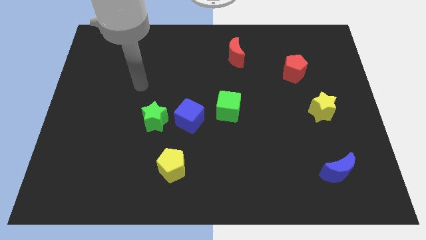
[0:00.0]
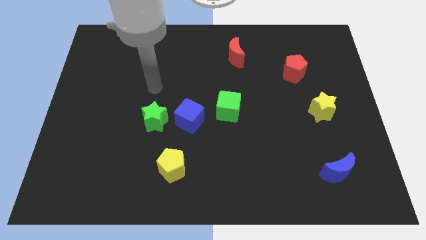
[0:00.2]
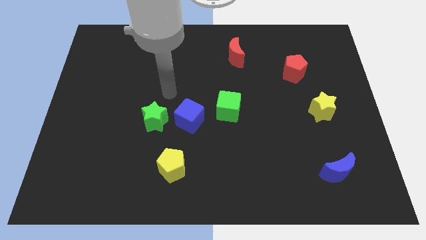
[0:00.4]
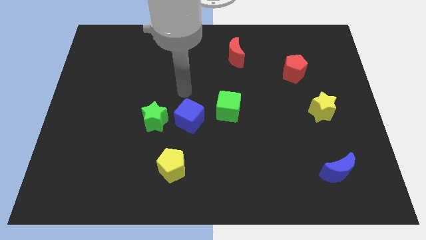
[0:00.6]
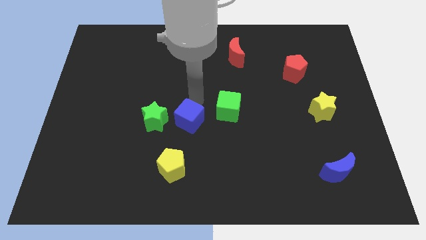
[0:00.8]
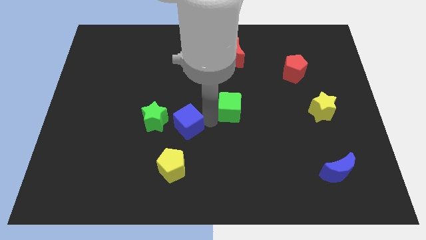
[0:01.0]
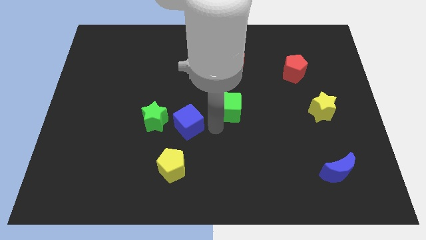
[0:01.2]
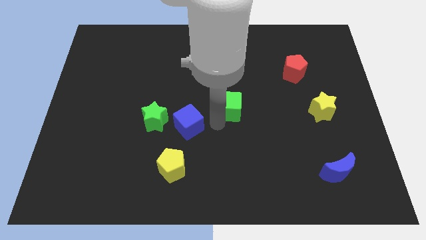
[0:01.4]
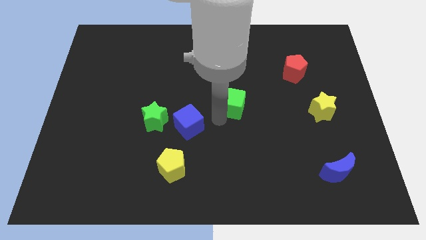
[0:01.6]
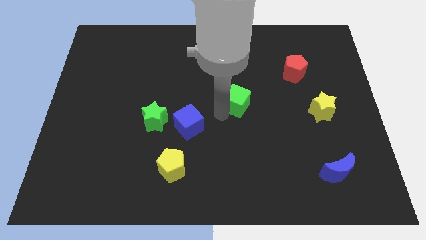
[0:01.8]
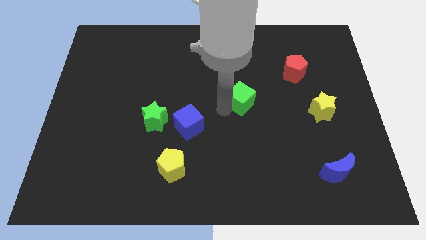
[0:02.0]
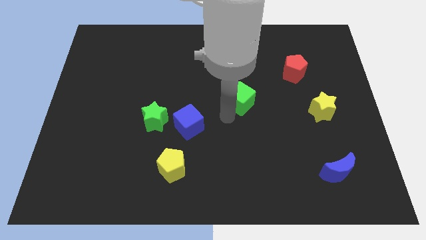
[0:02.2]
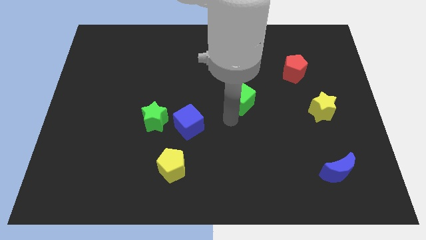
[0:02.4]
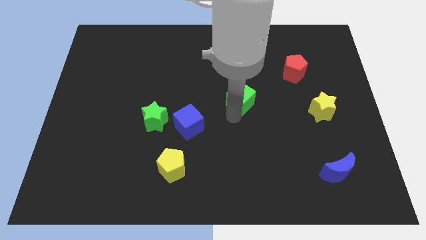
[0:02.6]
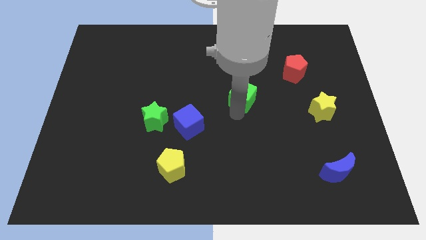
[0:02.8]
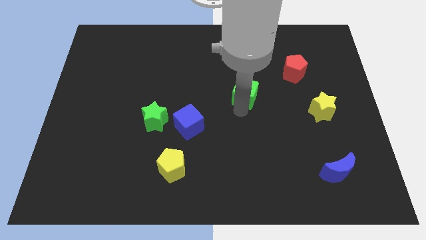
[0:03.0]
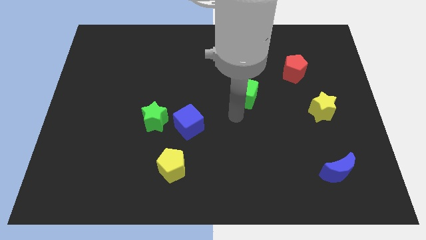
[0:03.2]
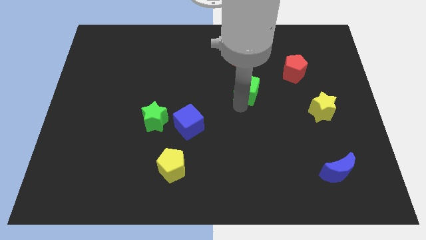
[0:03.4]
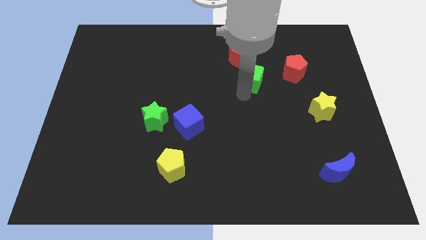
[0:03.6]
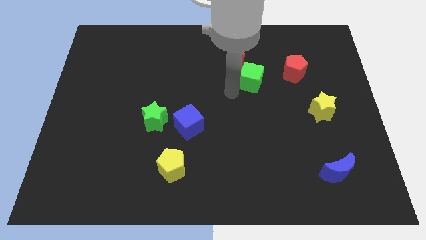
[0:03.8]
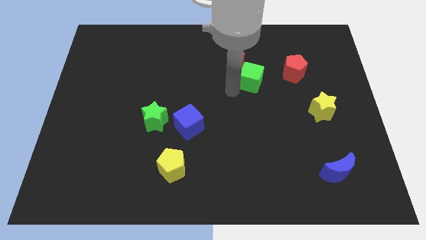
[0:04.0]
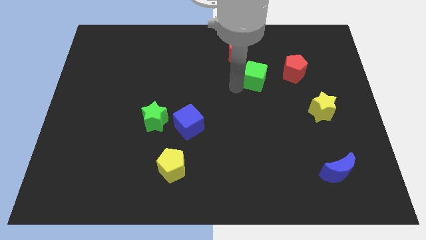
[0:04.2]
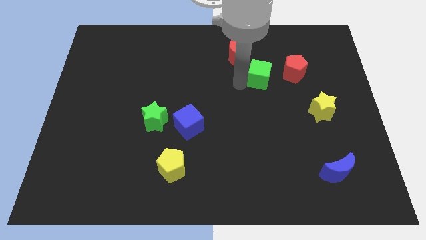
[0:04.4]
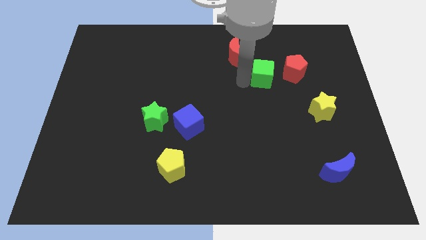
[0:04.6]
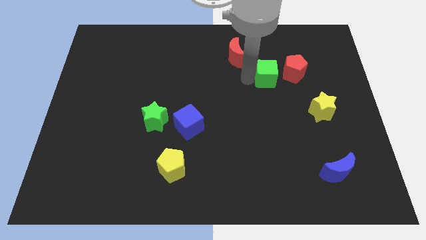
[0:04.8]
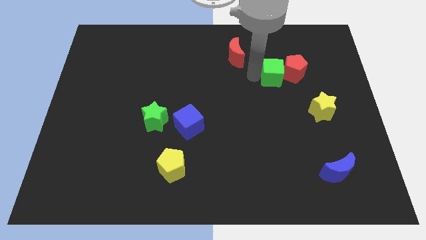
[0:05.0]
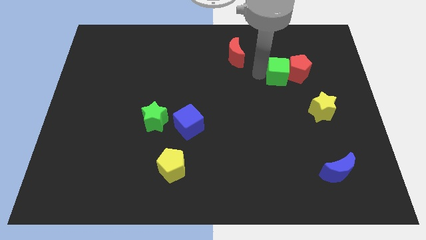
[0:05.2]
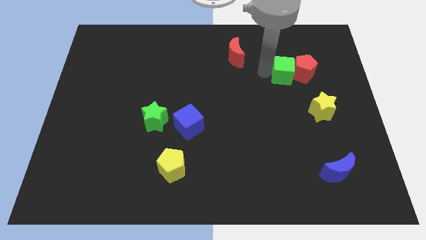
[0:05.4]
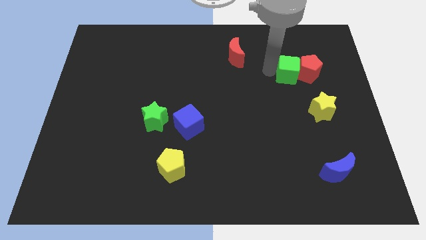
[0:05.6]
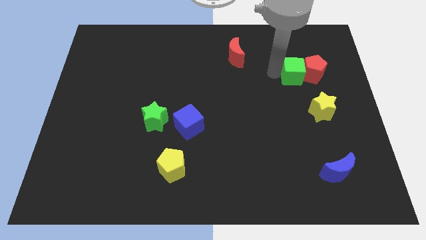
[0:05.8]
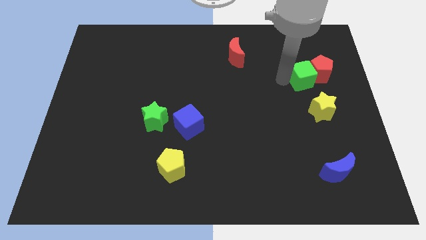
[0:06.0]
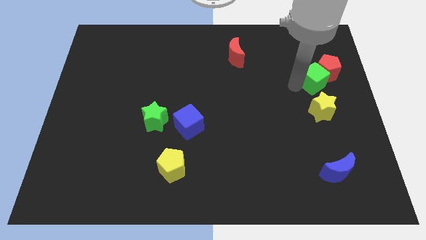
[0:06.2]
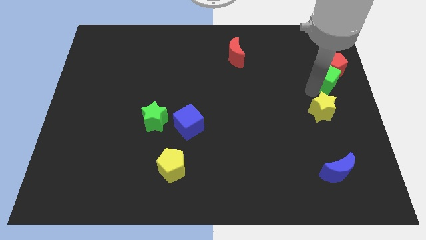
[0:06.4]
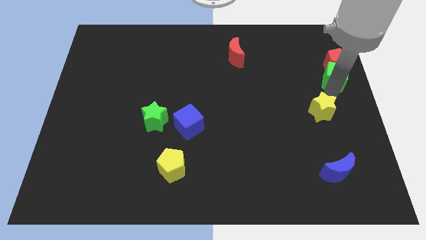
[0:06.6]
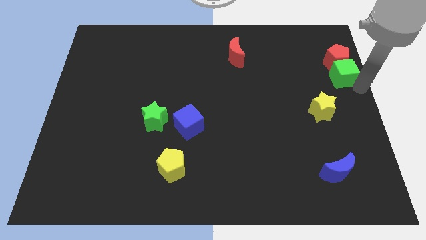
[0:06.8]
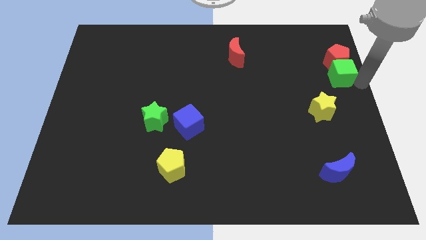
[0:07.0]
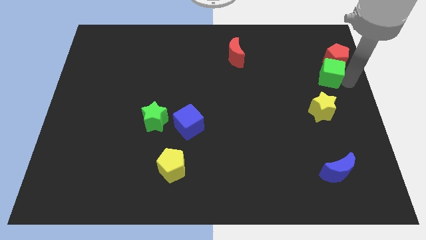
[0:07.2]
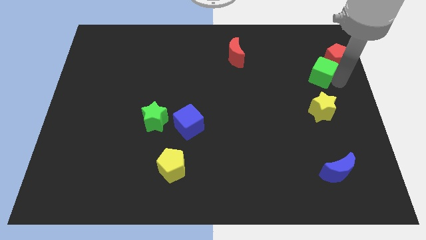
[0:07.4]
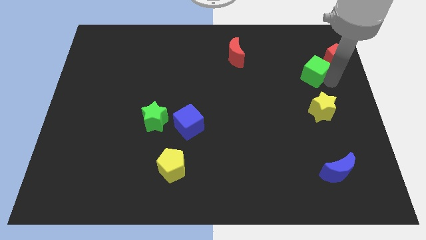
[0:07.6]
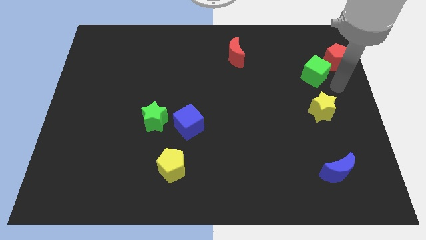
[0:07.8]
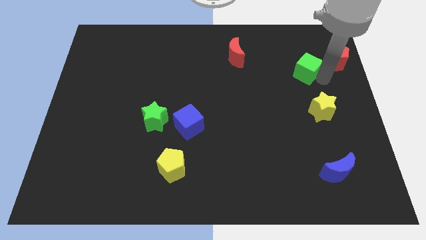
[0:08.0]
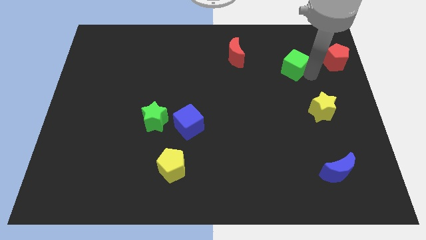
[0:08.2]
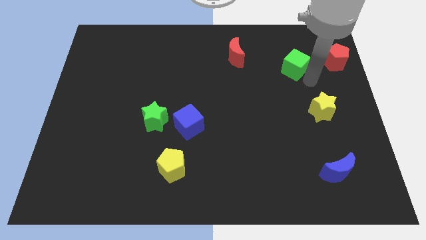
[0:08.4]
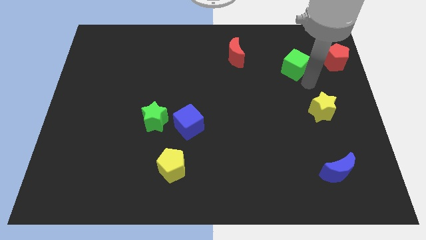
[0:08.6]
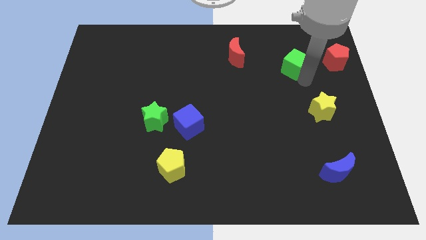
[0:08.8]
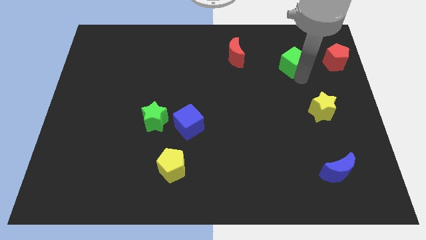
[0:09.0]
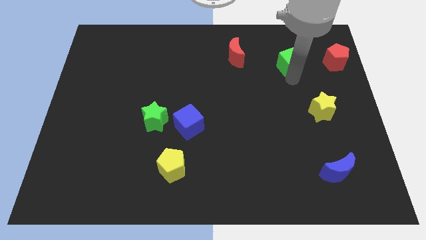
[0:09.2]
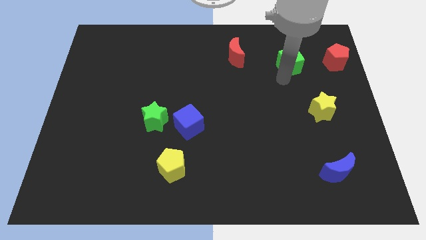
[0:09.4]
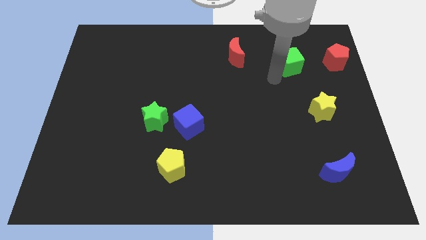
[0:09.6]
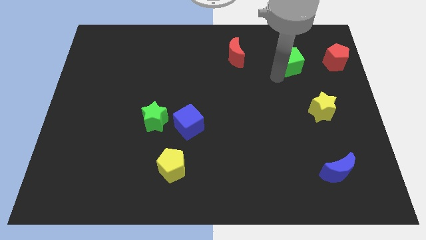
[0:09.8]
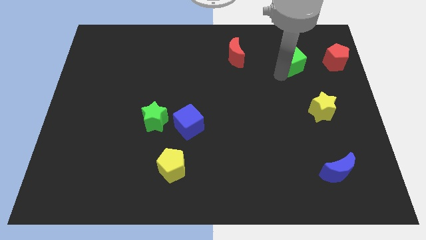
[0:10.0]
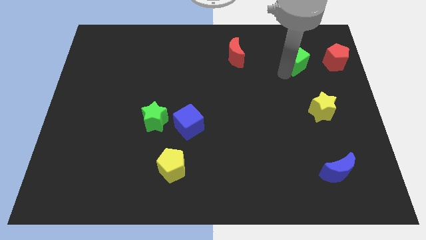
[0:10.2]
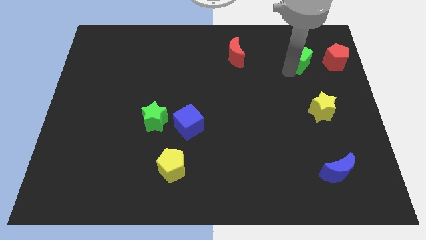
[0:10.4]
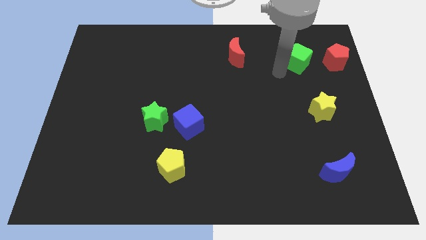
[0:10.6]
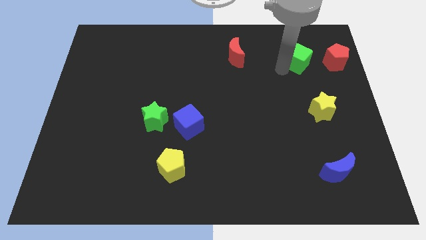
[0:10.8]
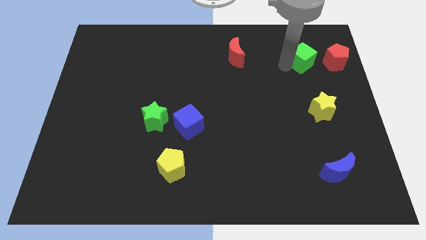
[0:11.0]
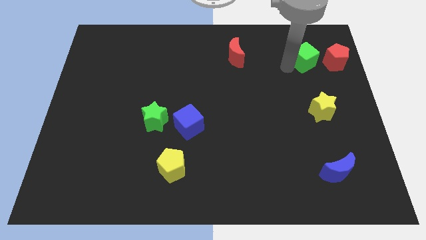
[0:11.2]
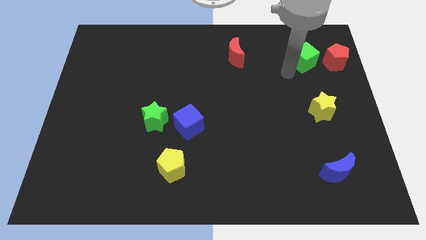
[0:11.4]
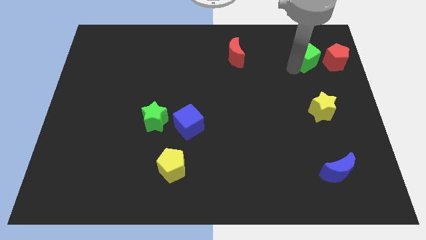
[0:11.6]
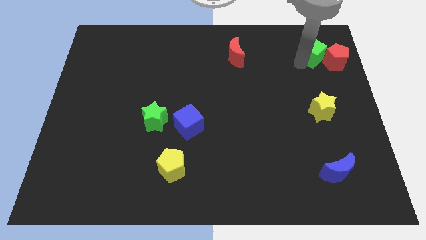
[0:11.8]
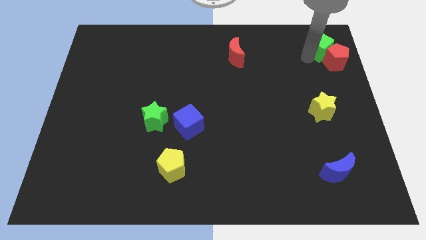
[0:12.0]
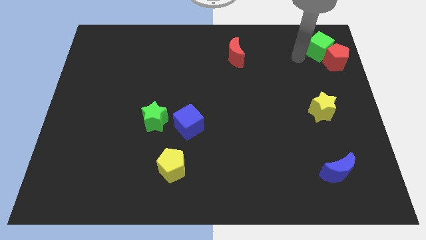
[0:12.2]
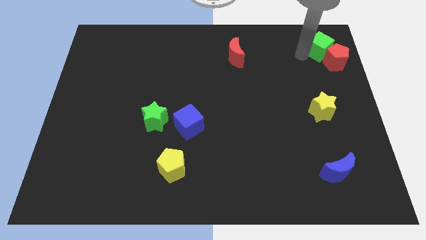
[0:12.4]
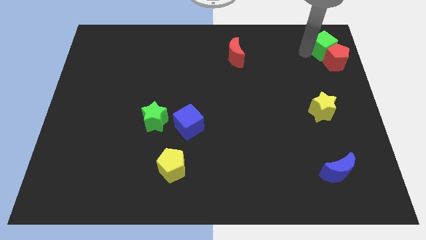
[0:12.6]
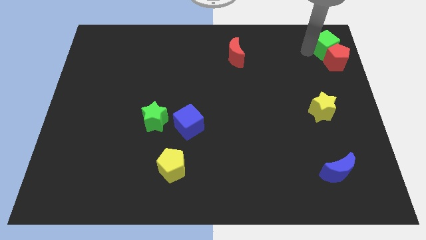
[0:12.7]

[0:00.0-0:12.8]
push the green cube to the top right of the board

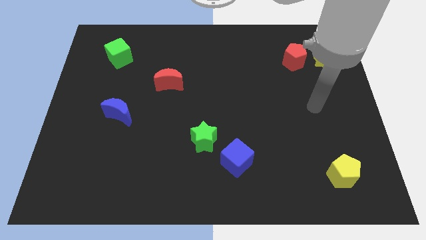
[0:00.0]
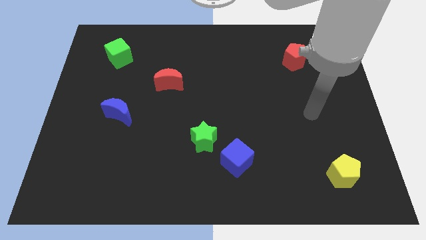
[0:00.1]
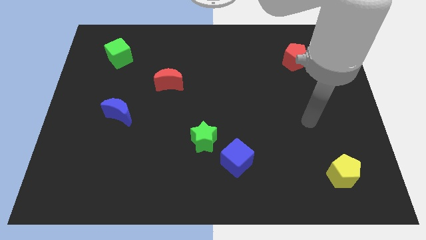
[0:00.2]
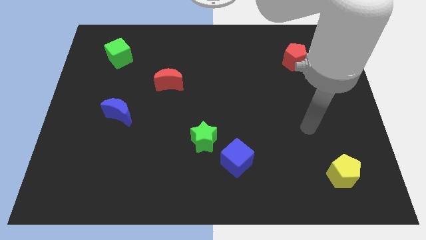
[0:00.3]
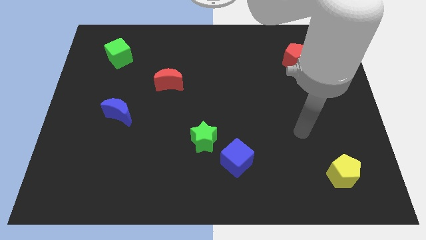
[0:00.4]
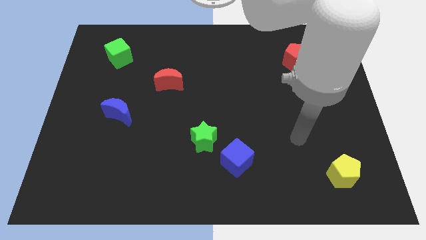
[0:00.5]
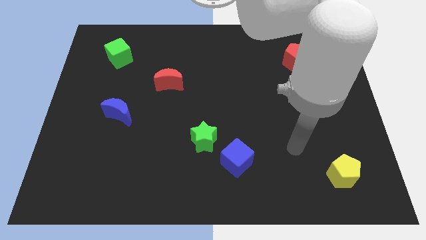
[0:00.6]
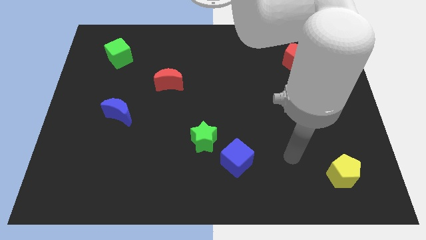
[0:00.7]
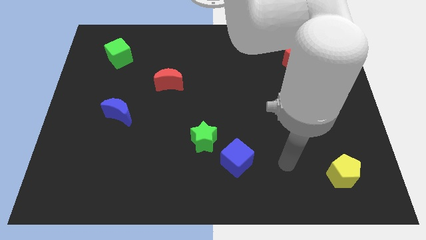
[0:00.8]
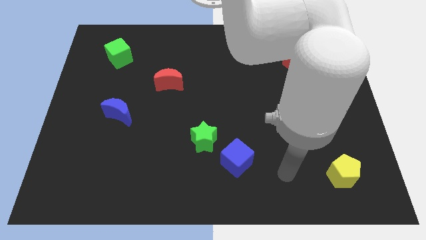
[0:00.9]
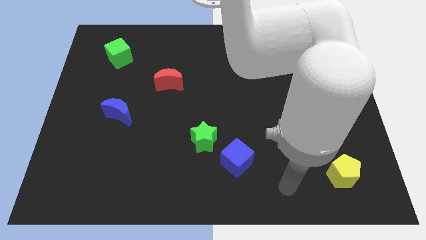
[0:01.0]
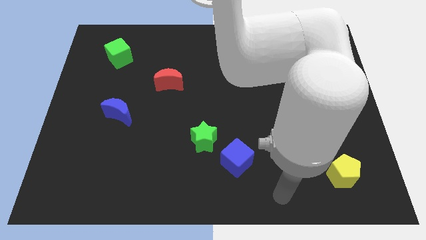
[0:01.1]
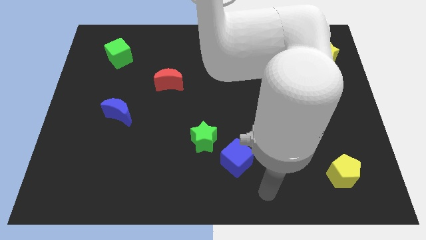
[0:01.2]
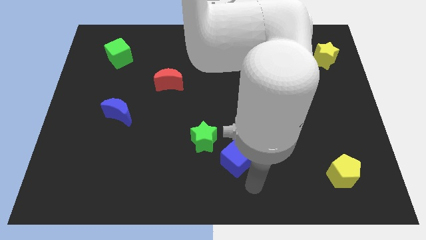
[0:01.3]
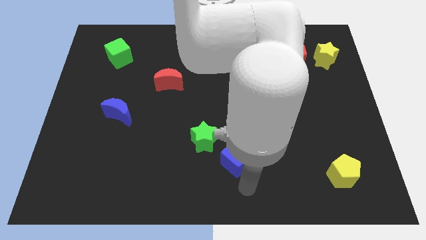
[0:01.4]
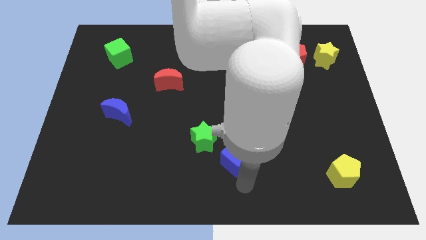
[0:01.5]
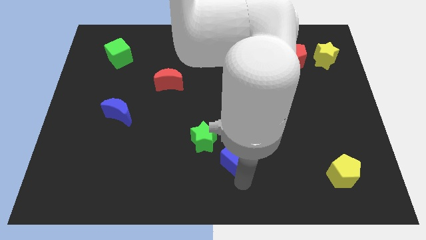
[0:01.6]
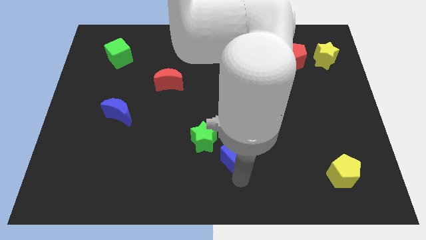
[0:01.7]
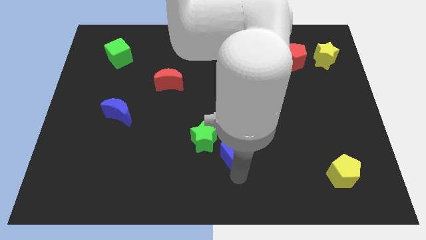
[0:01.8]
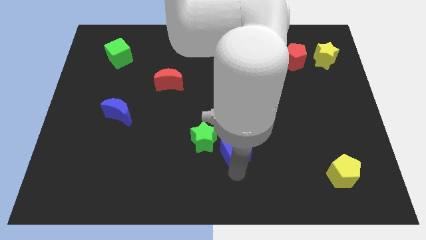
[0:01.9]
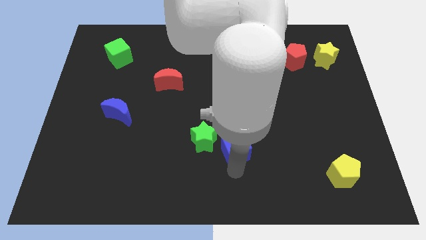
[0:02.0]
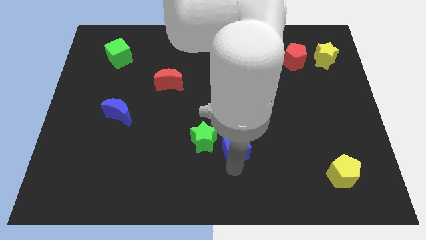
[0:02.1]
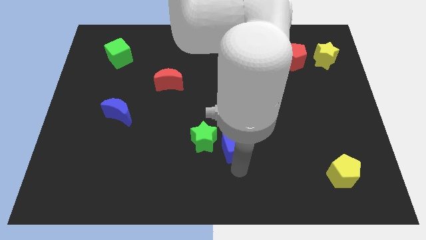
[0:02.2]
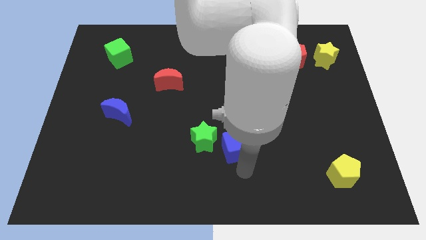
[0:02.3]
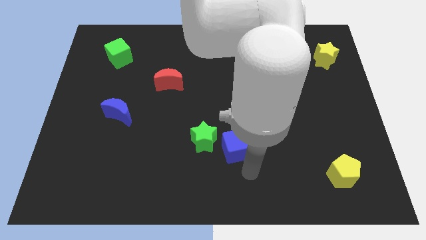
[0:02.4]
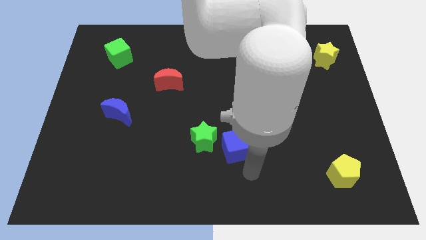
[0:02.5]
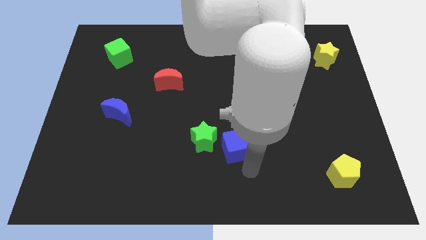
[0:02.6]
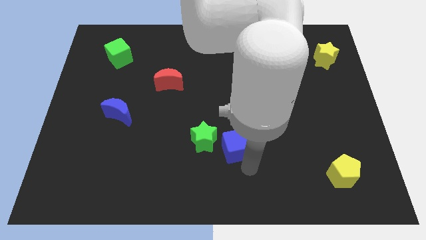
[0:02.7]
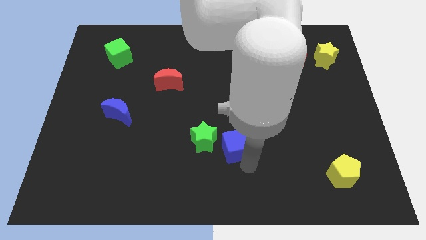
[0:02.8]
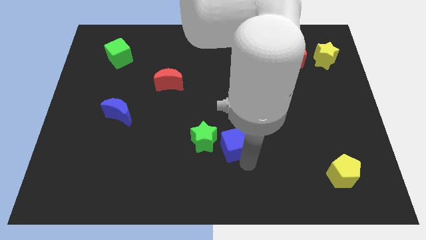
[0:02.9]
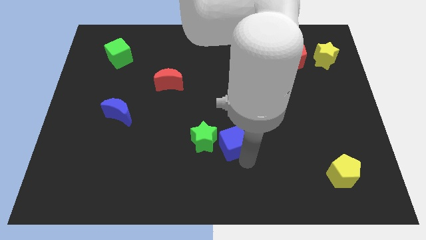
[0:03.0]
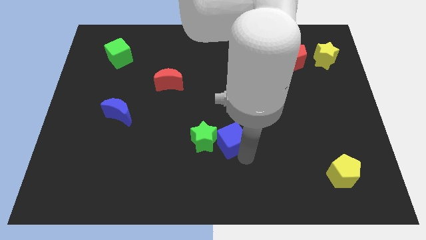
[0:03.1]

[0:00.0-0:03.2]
move the blue cube to the middle
